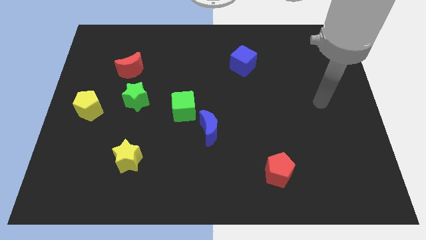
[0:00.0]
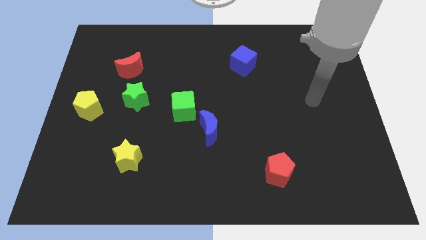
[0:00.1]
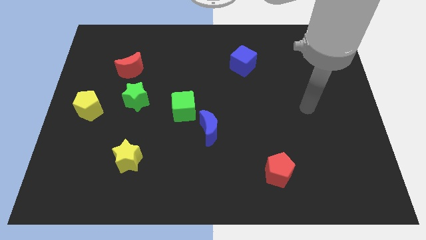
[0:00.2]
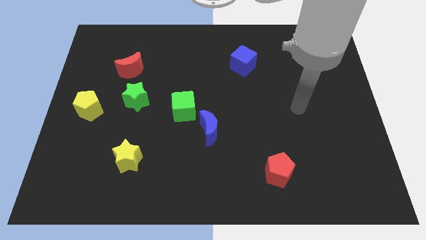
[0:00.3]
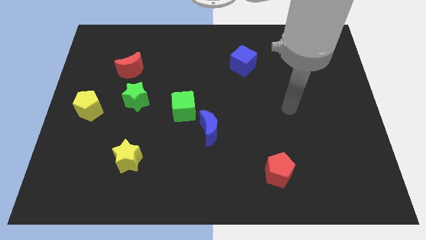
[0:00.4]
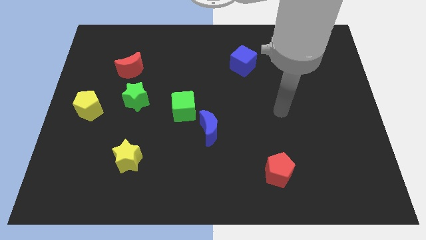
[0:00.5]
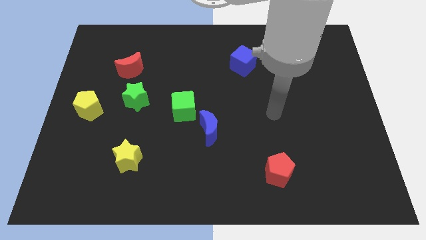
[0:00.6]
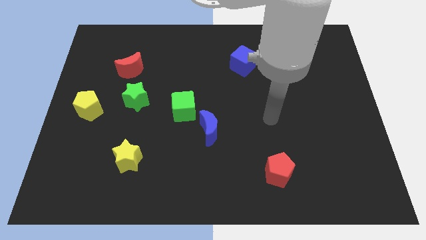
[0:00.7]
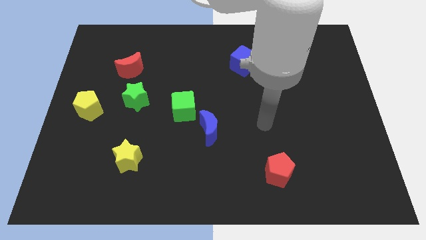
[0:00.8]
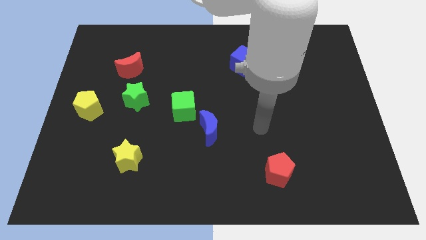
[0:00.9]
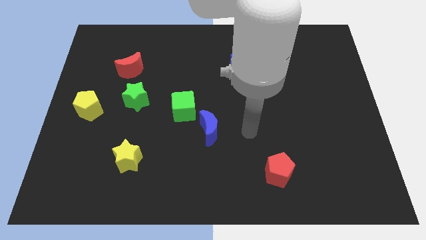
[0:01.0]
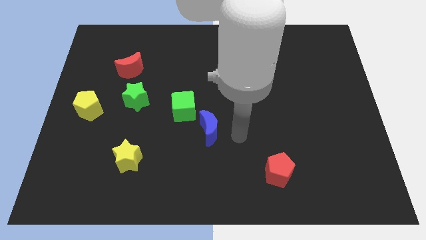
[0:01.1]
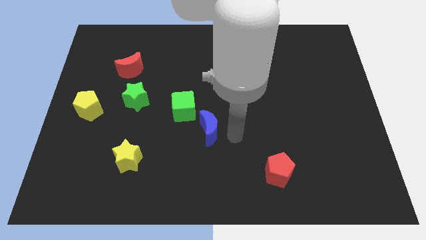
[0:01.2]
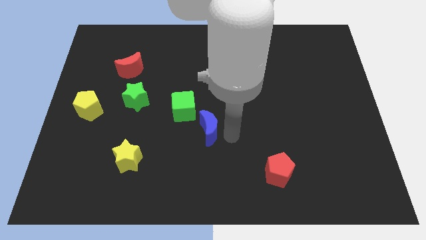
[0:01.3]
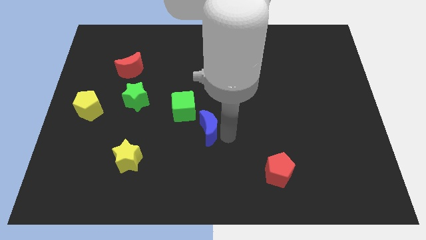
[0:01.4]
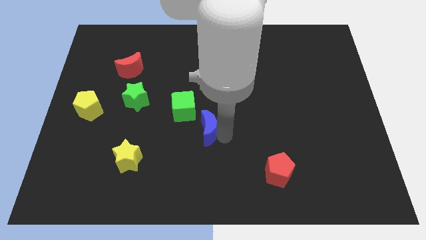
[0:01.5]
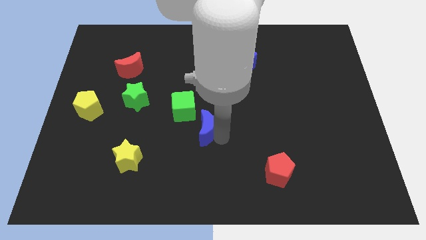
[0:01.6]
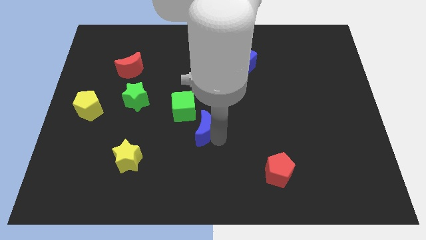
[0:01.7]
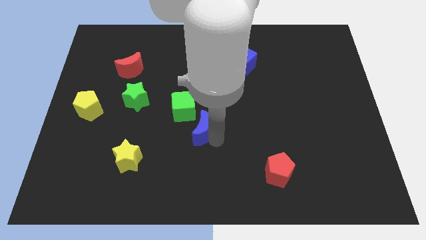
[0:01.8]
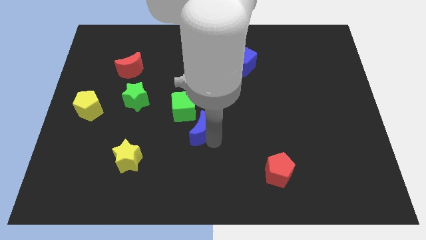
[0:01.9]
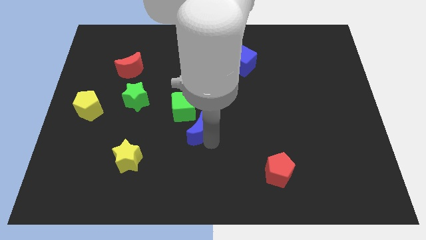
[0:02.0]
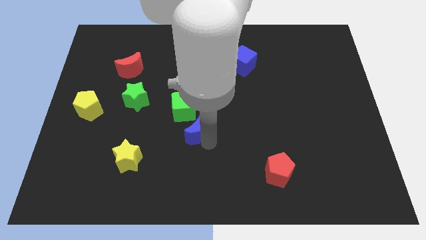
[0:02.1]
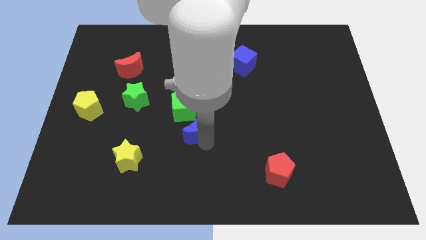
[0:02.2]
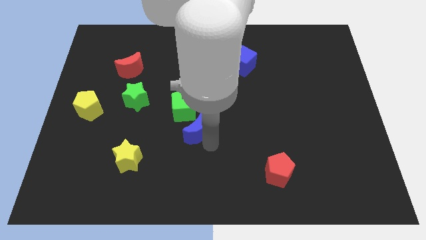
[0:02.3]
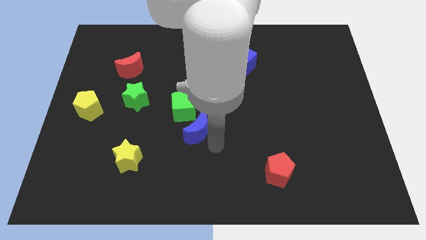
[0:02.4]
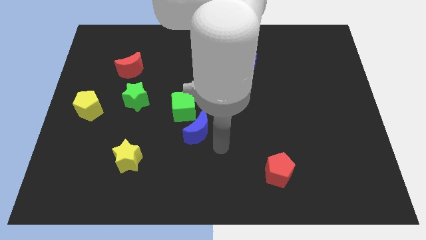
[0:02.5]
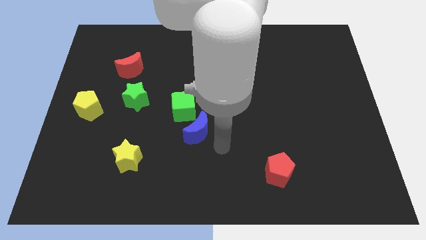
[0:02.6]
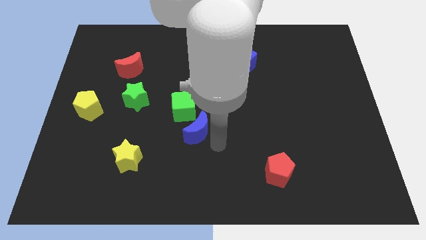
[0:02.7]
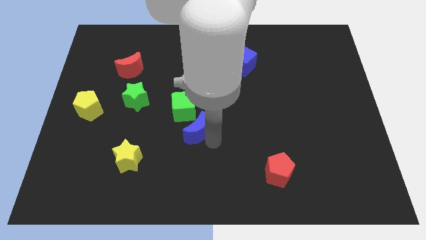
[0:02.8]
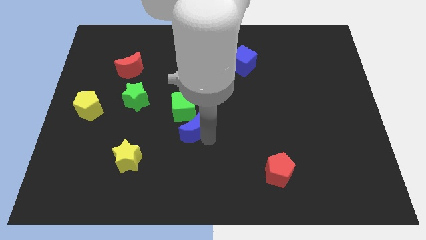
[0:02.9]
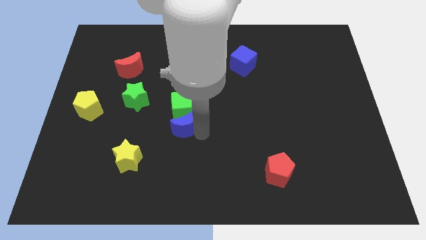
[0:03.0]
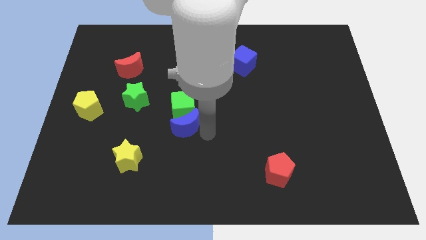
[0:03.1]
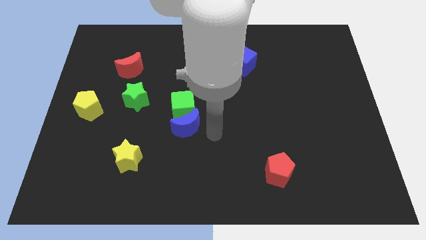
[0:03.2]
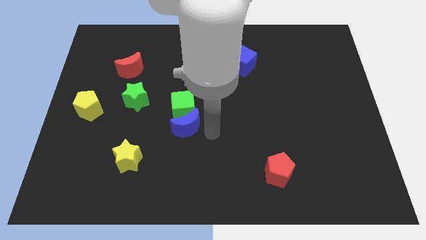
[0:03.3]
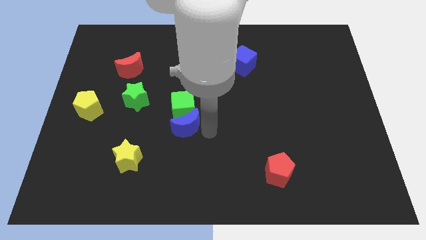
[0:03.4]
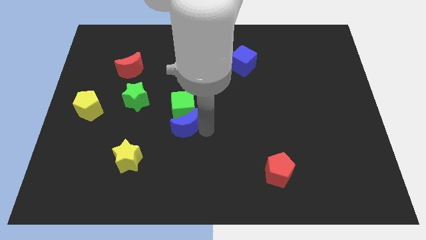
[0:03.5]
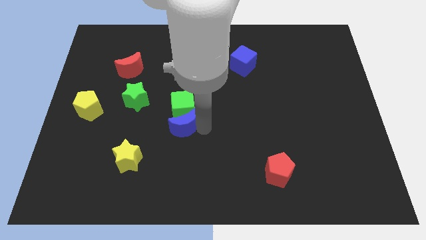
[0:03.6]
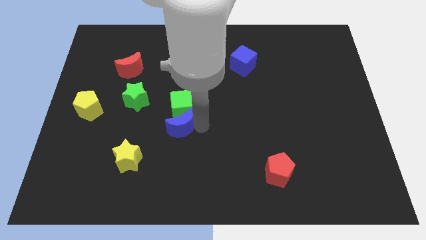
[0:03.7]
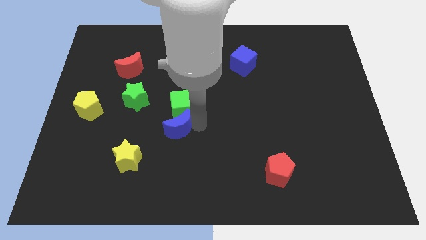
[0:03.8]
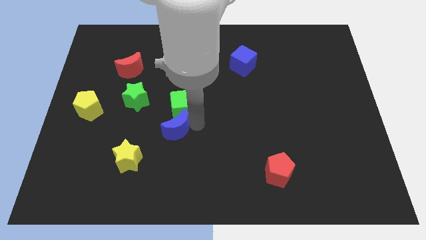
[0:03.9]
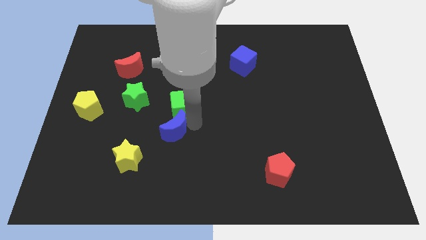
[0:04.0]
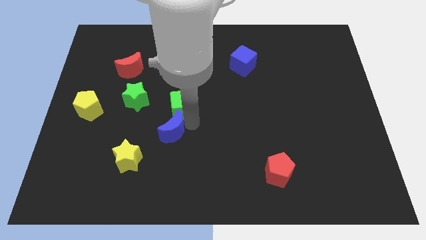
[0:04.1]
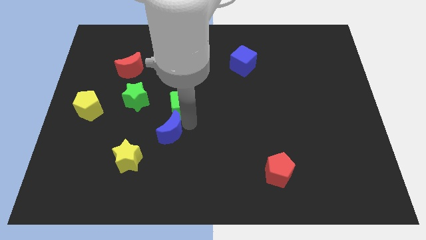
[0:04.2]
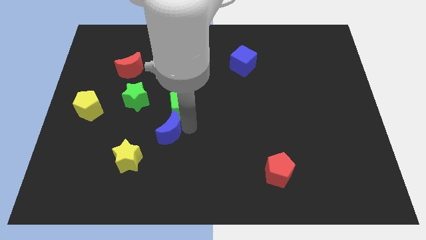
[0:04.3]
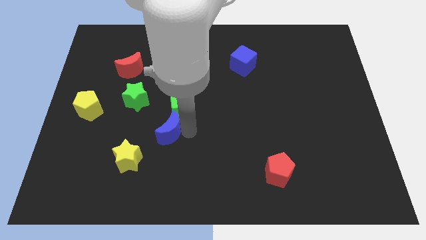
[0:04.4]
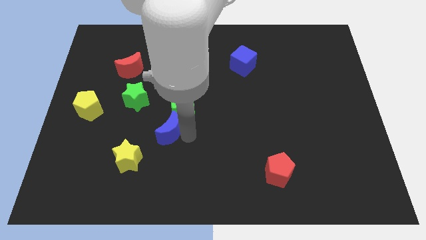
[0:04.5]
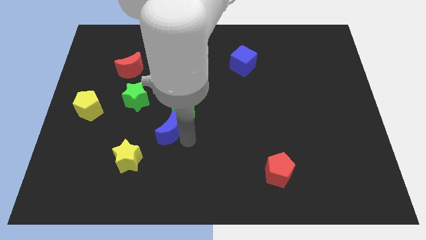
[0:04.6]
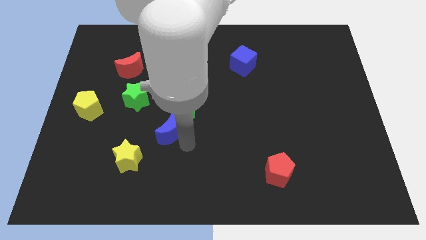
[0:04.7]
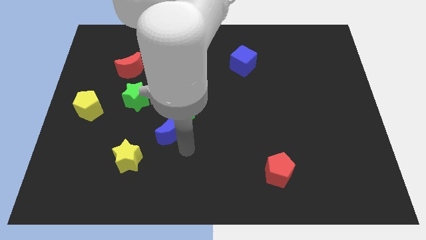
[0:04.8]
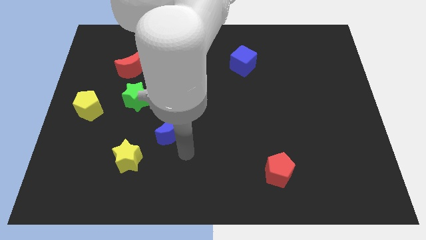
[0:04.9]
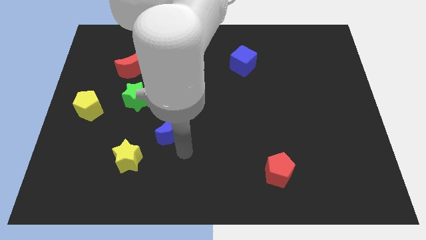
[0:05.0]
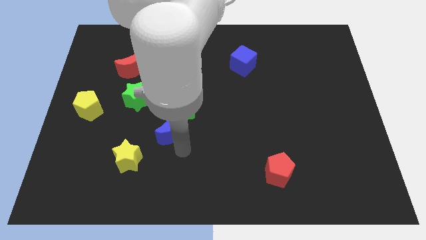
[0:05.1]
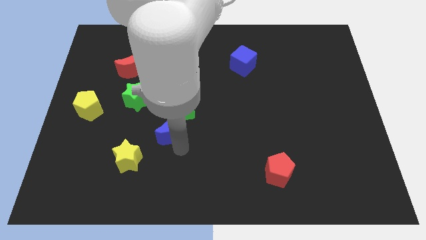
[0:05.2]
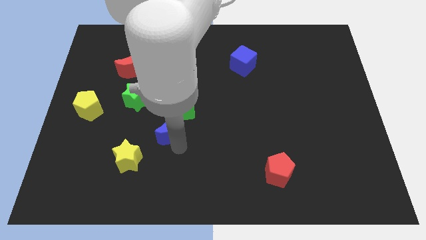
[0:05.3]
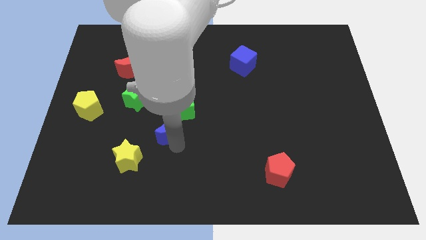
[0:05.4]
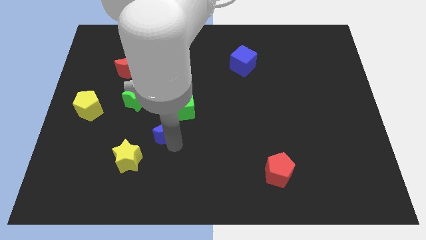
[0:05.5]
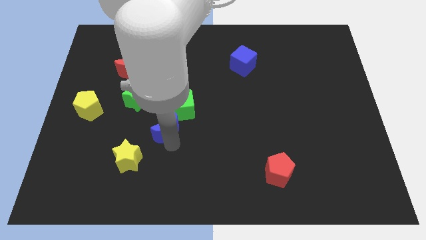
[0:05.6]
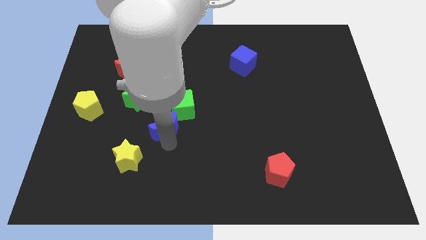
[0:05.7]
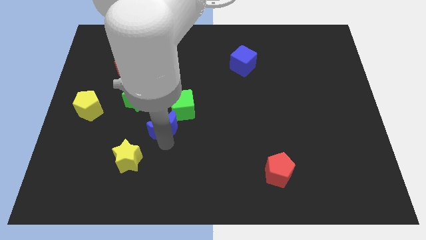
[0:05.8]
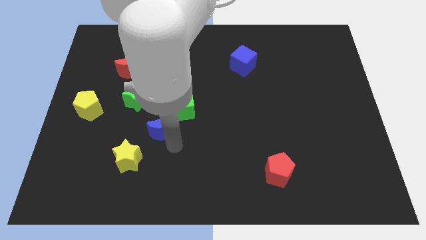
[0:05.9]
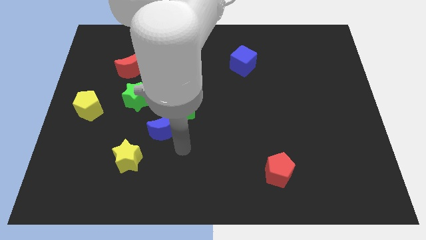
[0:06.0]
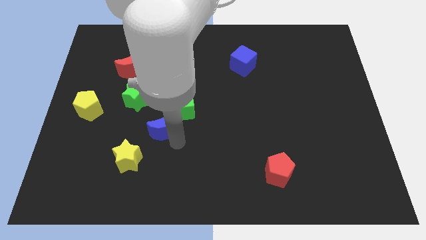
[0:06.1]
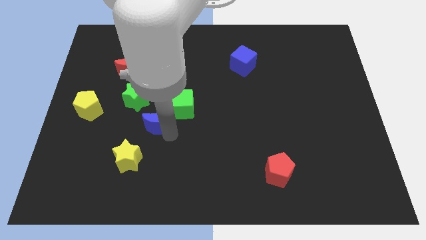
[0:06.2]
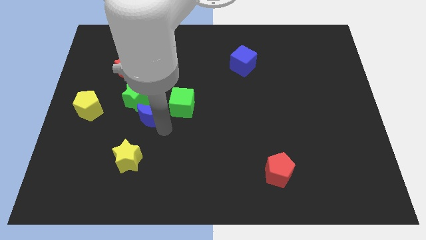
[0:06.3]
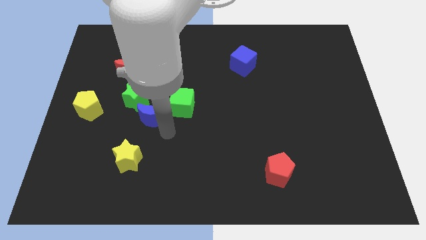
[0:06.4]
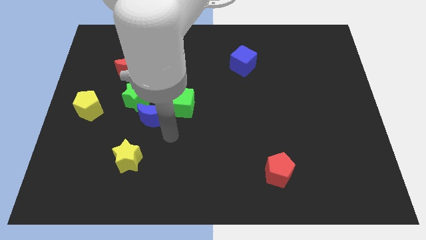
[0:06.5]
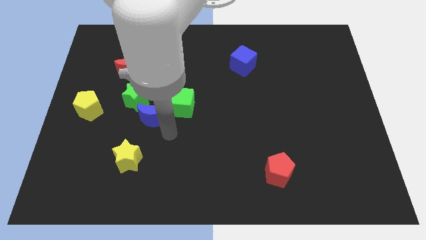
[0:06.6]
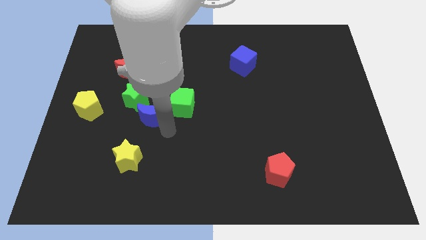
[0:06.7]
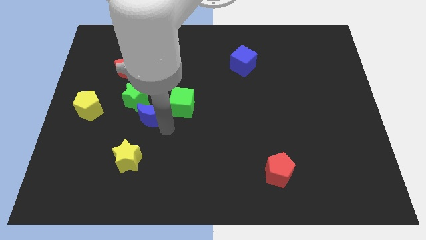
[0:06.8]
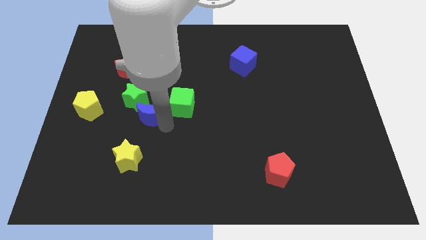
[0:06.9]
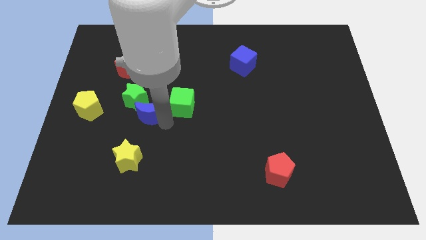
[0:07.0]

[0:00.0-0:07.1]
put the blue moon next to the green star
